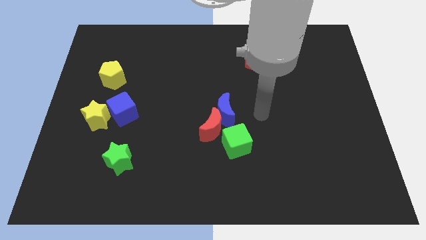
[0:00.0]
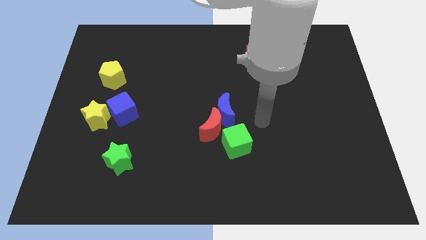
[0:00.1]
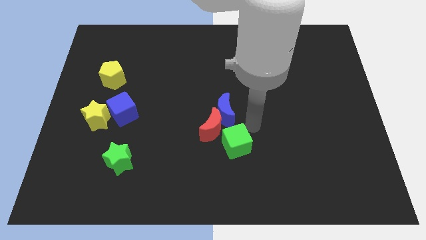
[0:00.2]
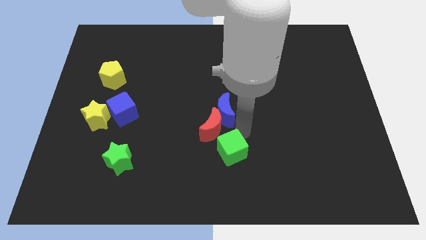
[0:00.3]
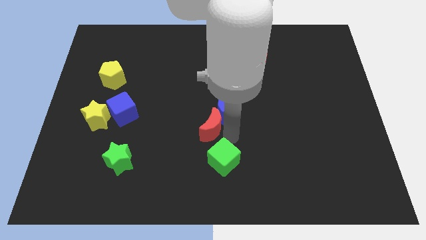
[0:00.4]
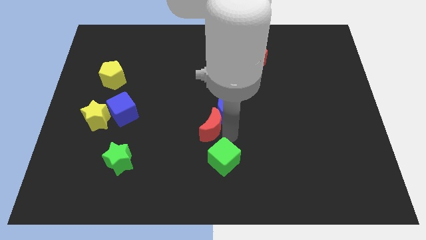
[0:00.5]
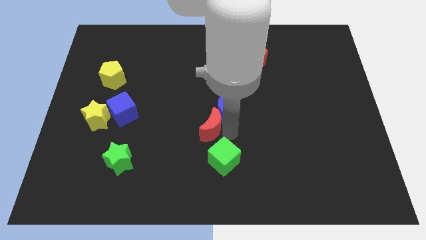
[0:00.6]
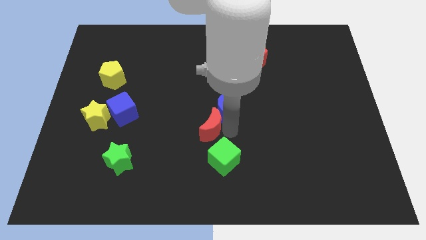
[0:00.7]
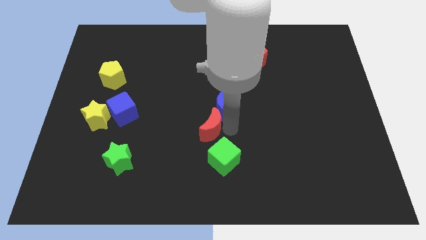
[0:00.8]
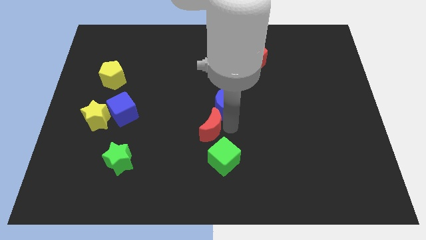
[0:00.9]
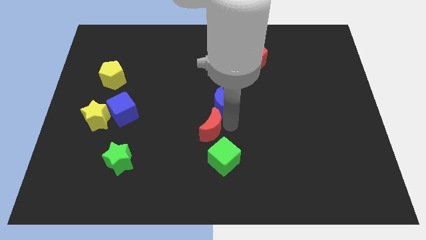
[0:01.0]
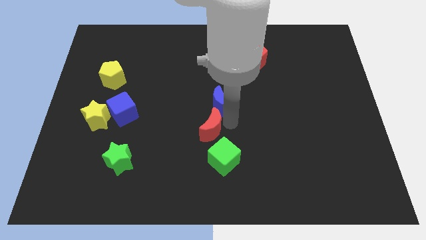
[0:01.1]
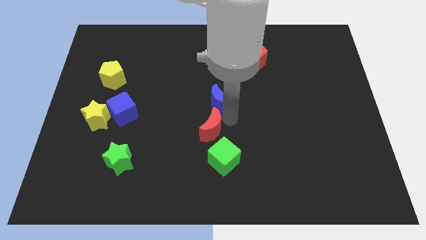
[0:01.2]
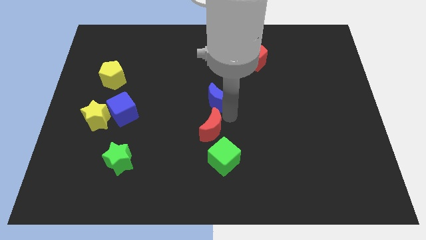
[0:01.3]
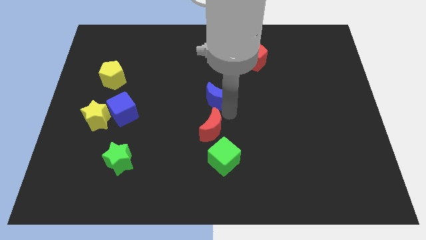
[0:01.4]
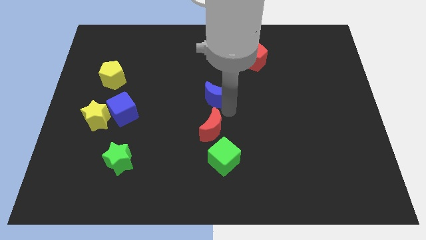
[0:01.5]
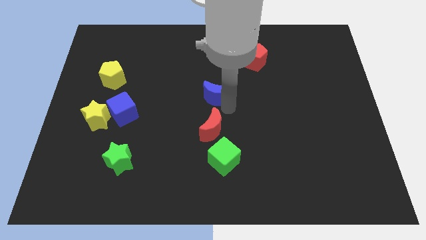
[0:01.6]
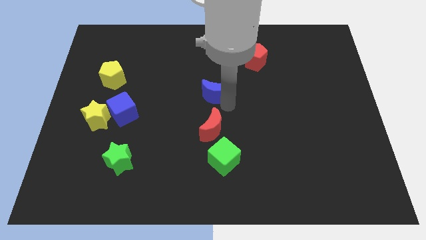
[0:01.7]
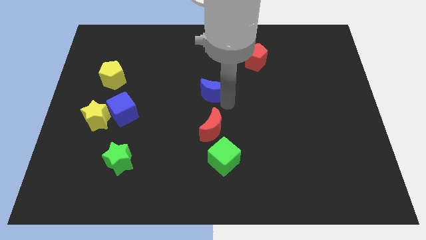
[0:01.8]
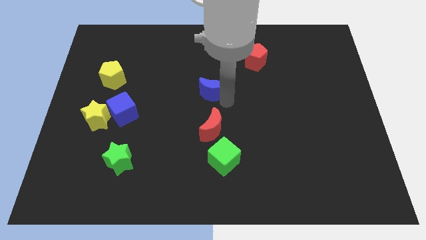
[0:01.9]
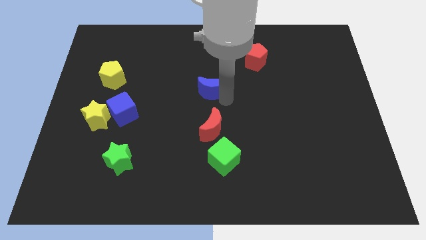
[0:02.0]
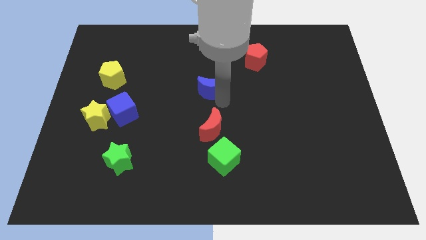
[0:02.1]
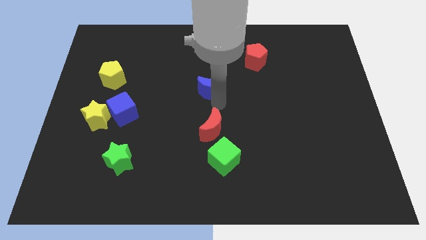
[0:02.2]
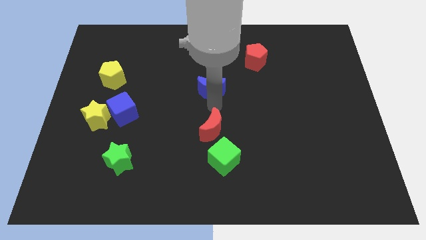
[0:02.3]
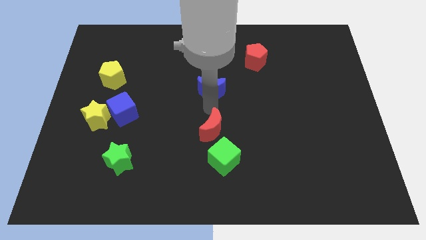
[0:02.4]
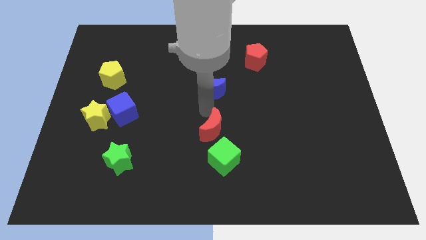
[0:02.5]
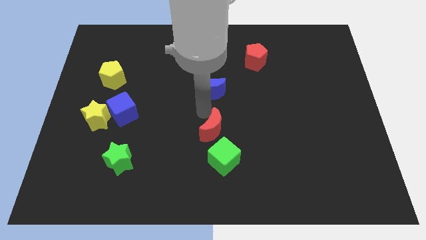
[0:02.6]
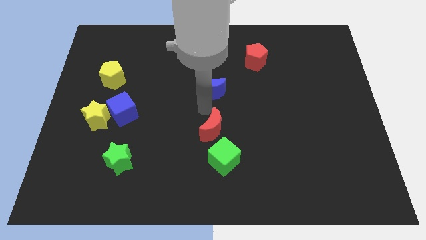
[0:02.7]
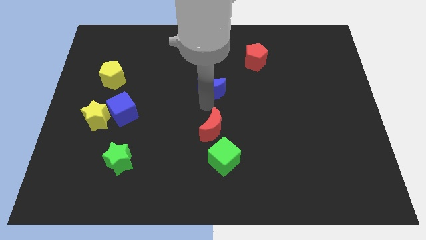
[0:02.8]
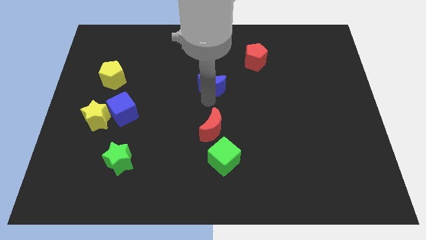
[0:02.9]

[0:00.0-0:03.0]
push the blue moon upwards a little bit

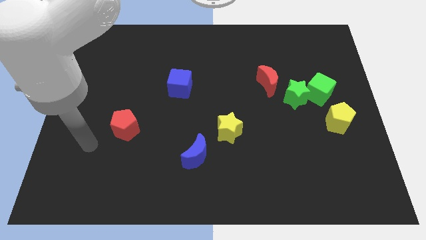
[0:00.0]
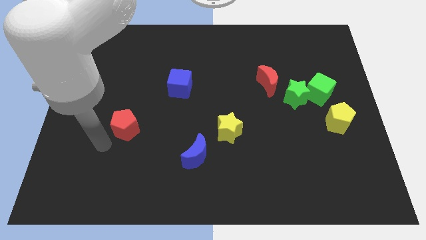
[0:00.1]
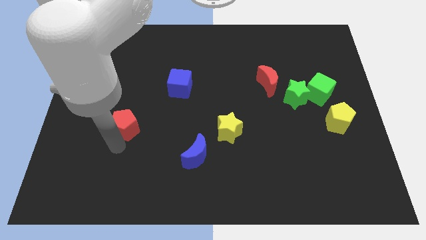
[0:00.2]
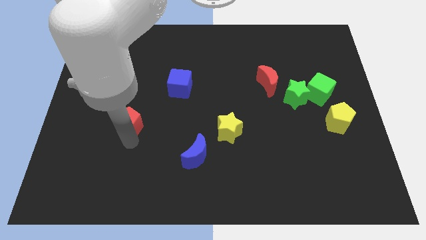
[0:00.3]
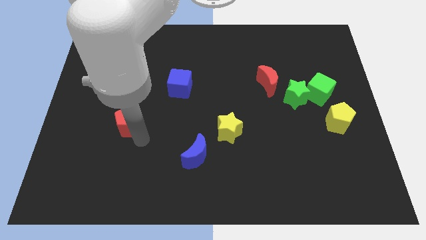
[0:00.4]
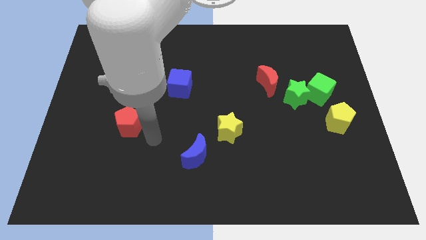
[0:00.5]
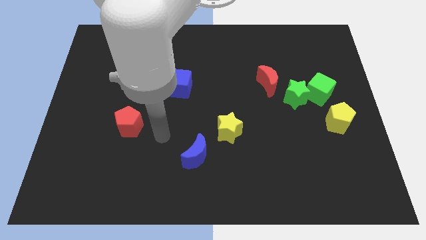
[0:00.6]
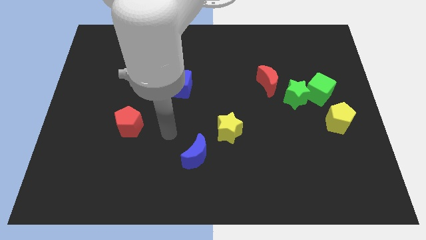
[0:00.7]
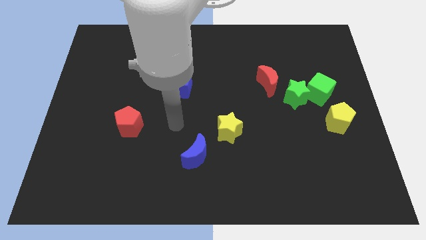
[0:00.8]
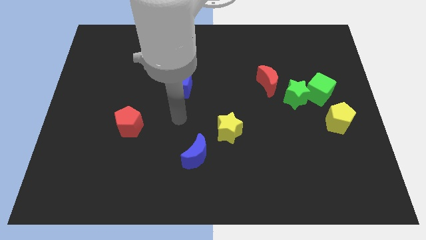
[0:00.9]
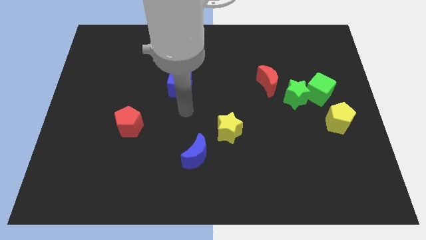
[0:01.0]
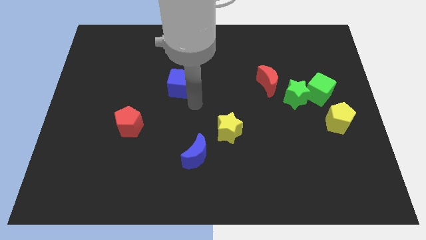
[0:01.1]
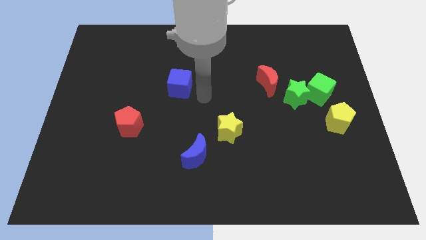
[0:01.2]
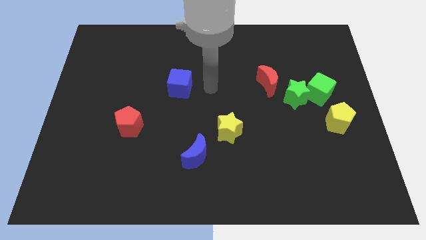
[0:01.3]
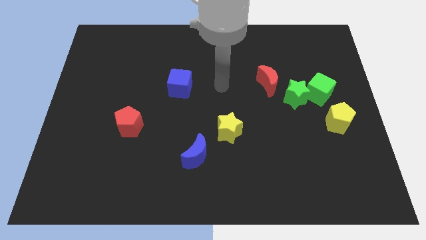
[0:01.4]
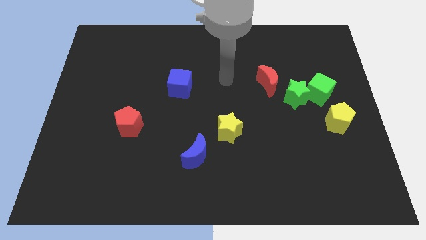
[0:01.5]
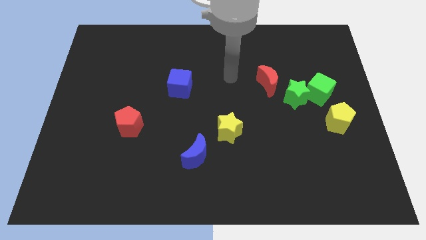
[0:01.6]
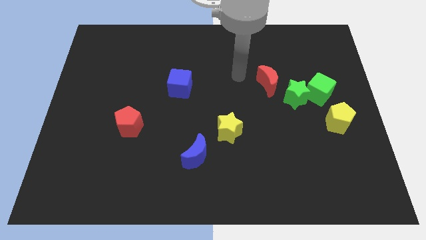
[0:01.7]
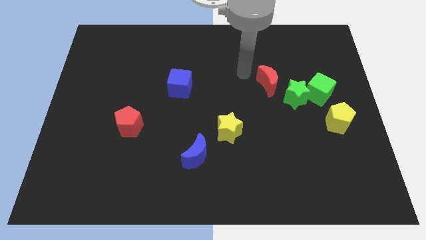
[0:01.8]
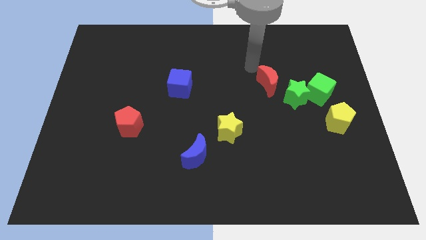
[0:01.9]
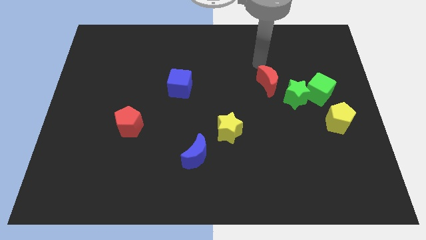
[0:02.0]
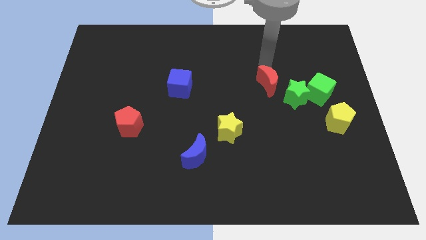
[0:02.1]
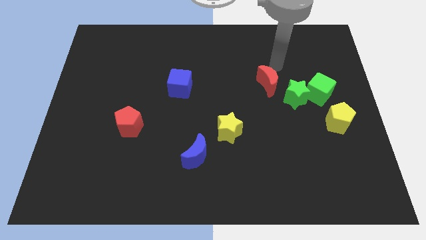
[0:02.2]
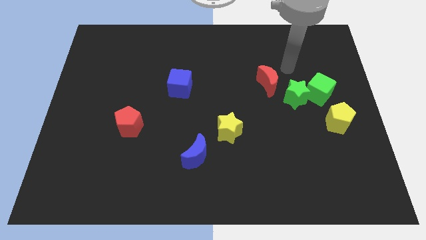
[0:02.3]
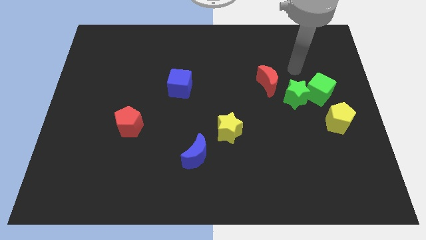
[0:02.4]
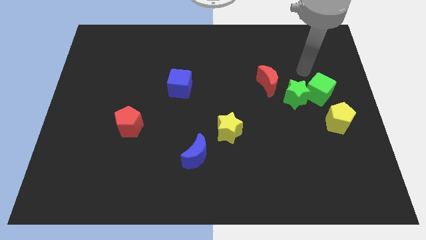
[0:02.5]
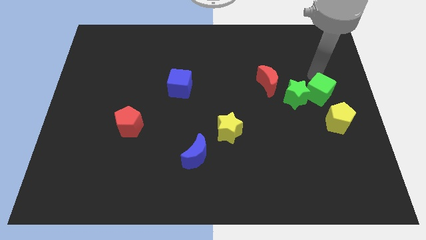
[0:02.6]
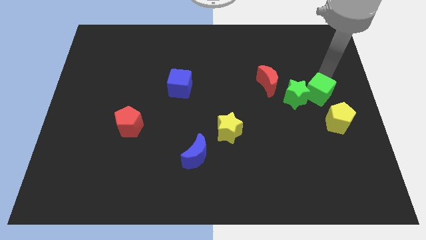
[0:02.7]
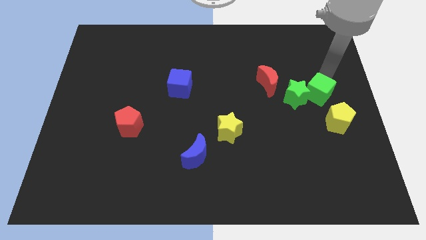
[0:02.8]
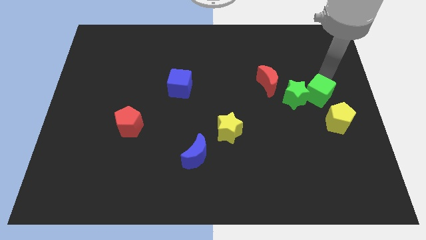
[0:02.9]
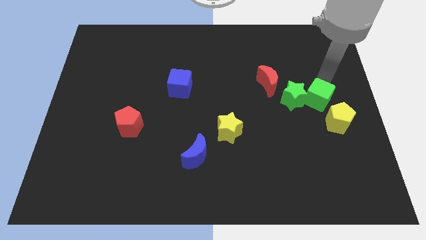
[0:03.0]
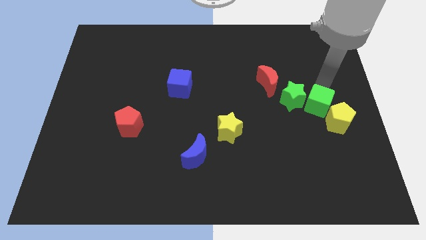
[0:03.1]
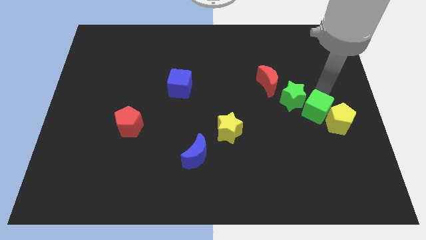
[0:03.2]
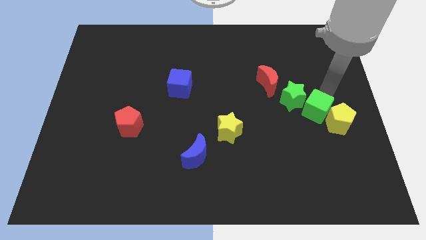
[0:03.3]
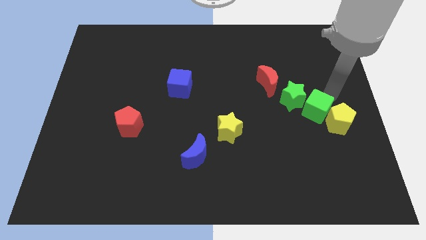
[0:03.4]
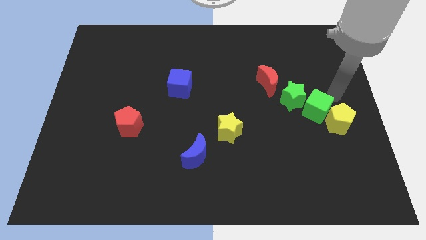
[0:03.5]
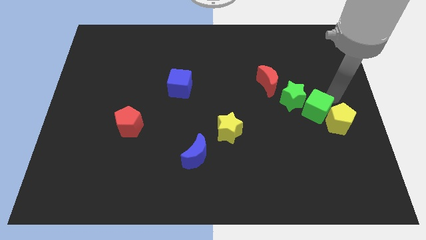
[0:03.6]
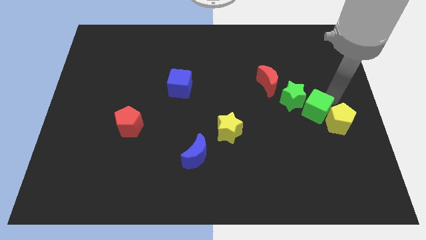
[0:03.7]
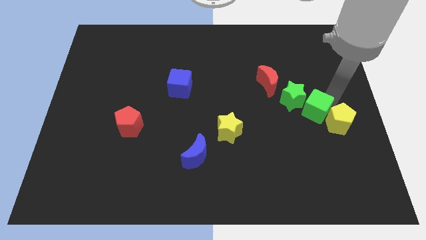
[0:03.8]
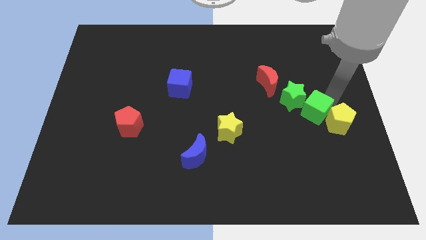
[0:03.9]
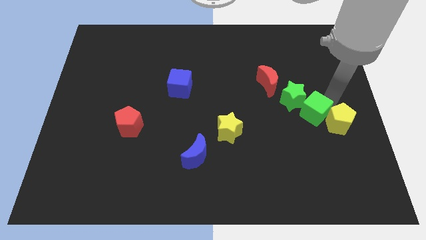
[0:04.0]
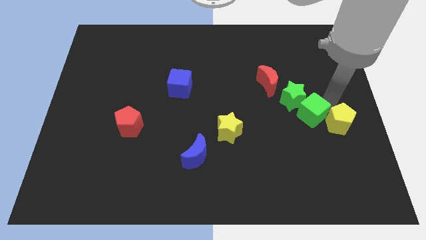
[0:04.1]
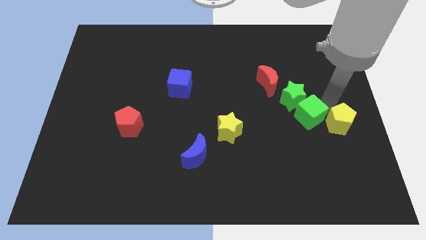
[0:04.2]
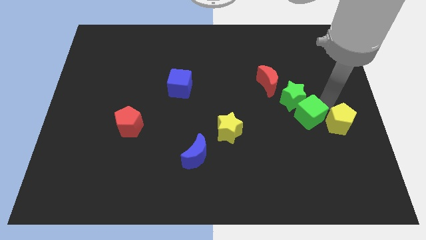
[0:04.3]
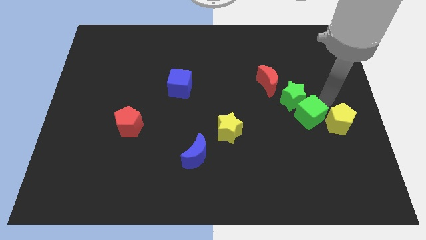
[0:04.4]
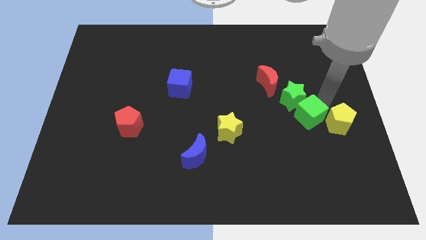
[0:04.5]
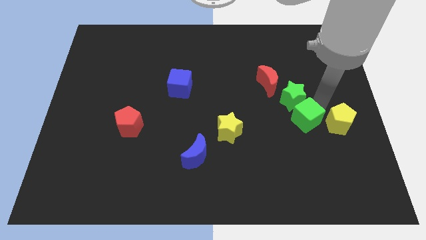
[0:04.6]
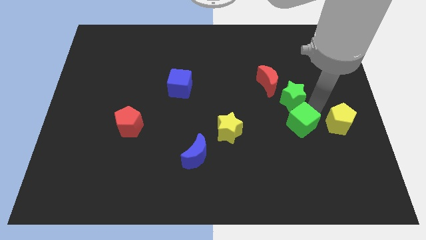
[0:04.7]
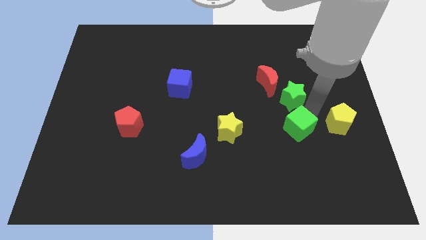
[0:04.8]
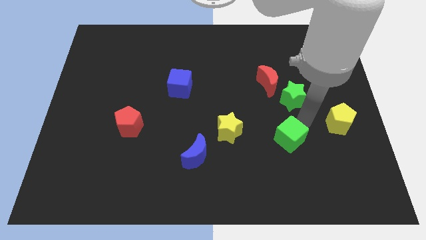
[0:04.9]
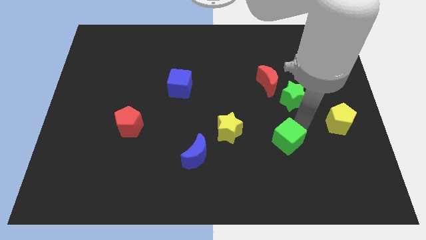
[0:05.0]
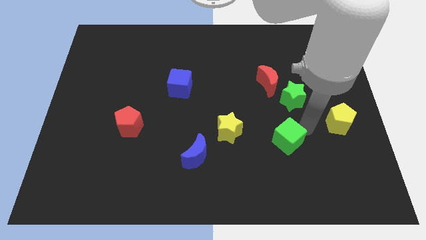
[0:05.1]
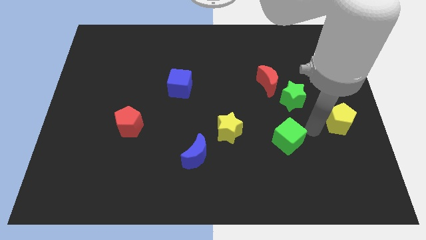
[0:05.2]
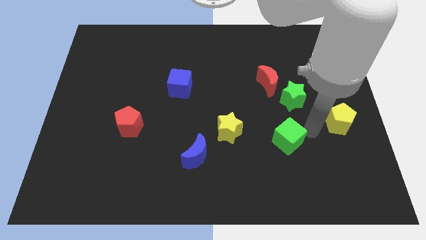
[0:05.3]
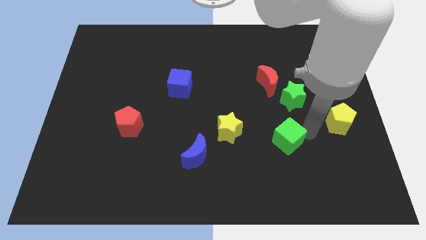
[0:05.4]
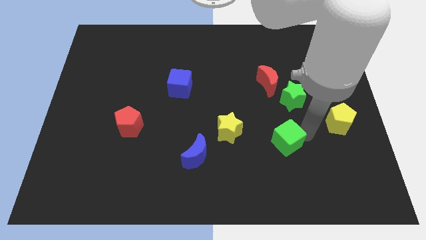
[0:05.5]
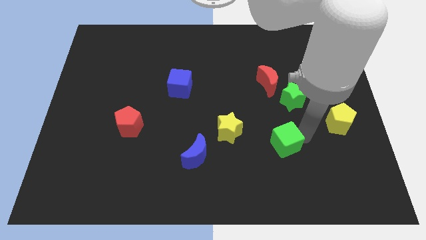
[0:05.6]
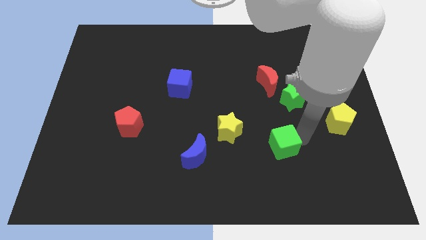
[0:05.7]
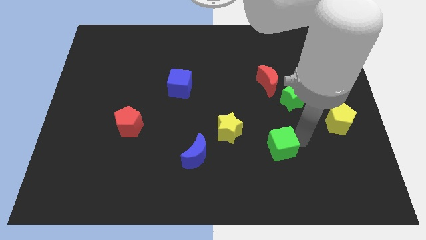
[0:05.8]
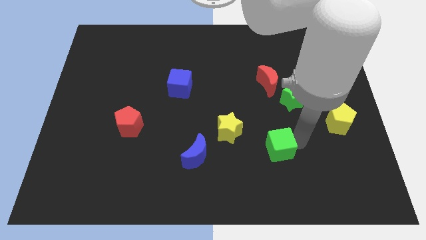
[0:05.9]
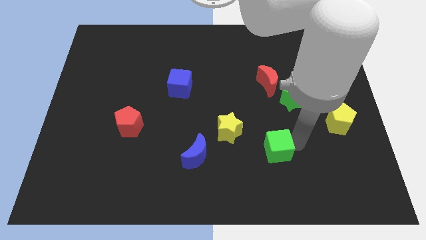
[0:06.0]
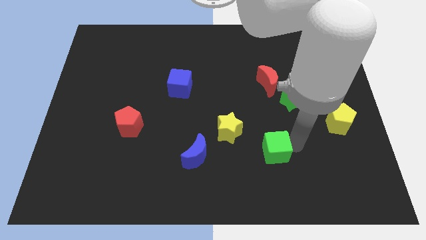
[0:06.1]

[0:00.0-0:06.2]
move the green cube down and then to the left
